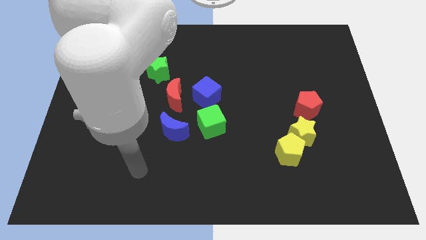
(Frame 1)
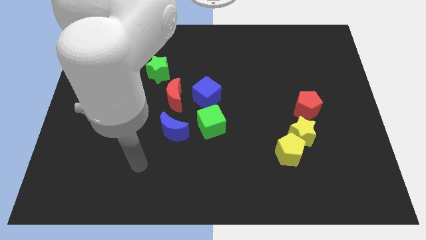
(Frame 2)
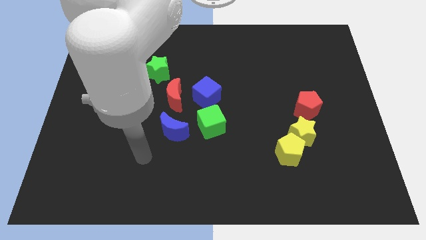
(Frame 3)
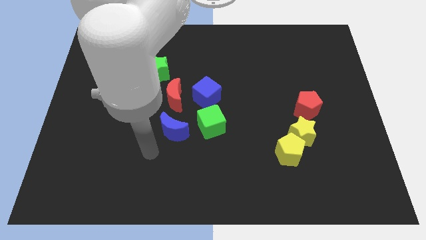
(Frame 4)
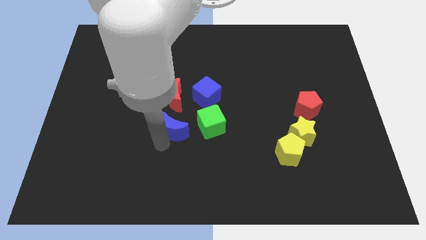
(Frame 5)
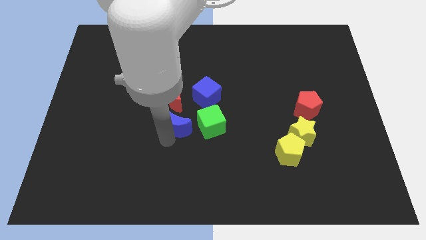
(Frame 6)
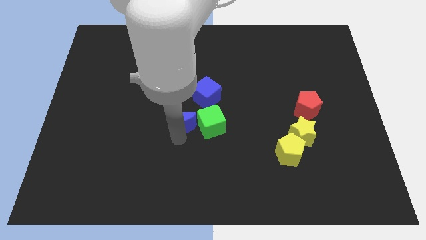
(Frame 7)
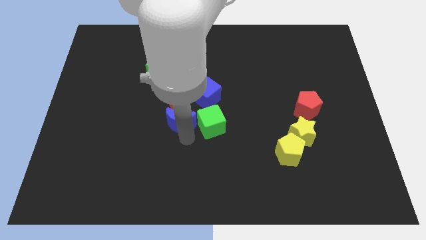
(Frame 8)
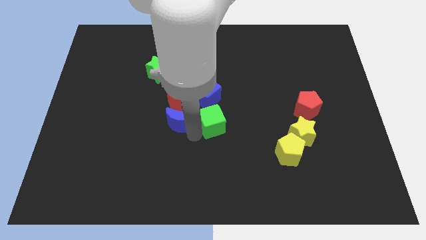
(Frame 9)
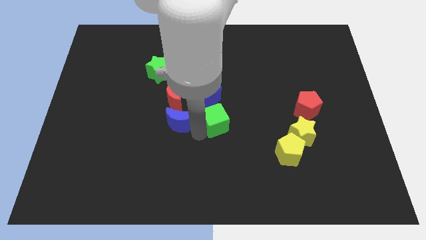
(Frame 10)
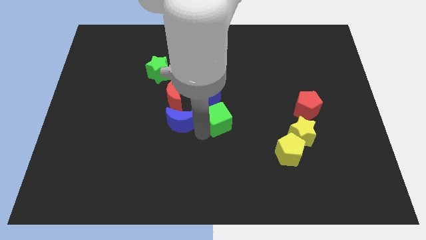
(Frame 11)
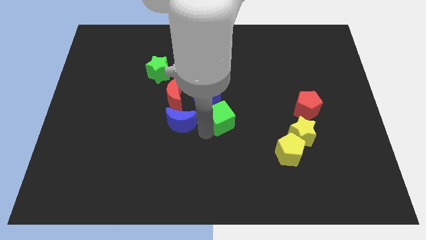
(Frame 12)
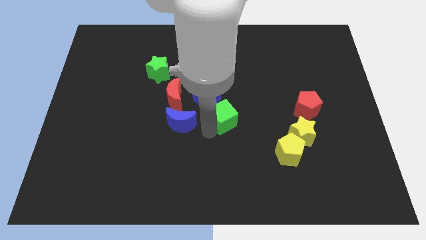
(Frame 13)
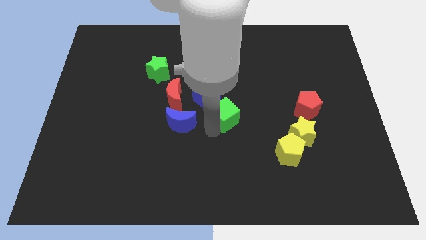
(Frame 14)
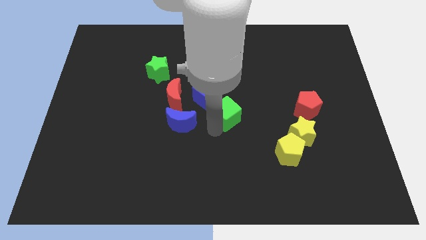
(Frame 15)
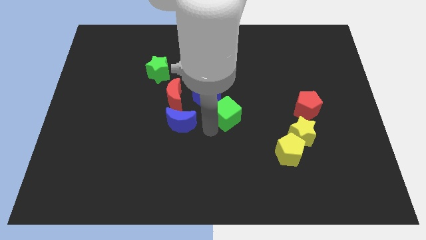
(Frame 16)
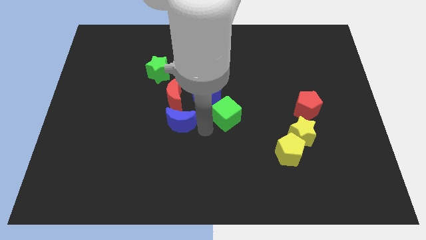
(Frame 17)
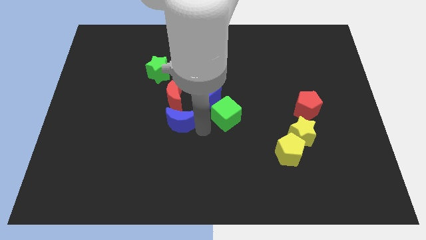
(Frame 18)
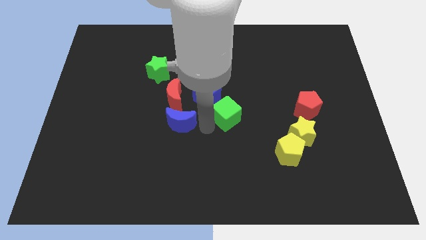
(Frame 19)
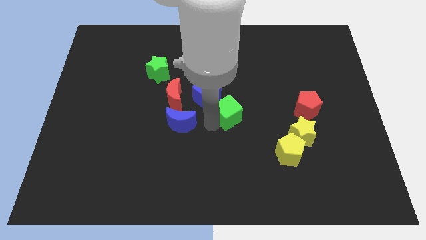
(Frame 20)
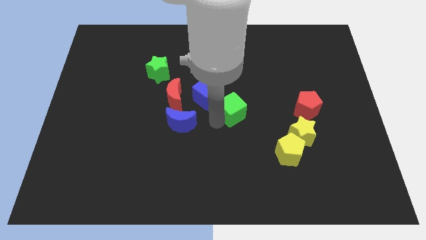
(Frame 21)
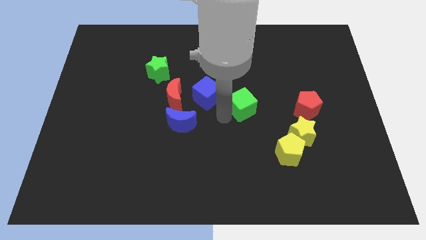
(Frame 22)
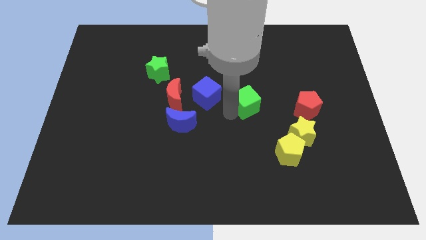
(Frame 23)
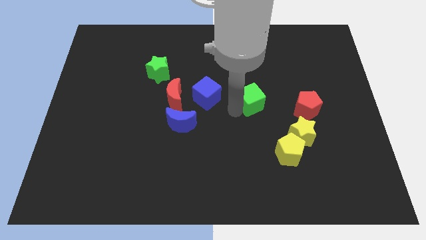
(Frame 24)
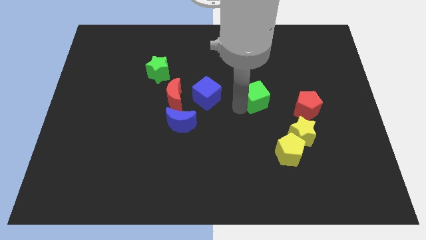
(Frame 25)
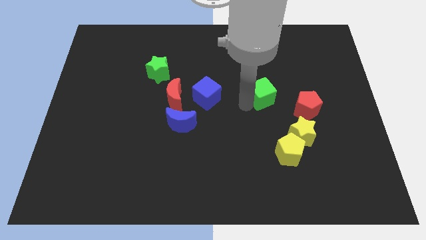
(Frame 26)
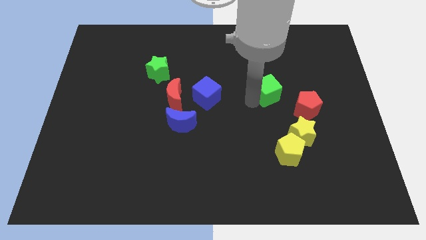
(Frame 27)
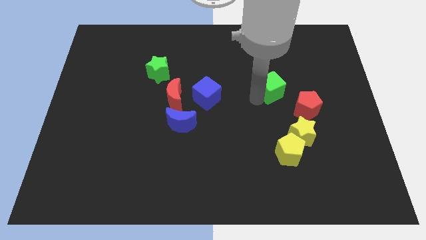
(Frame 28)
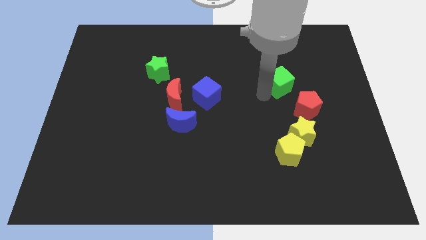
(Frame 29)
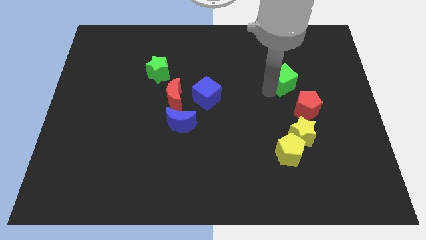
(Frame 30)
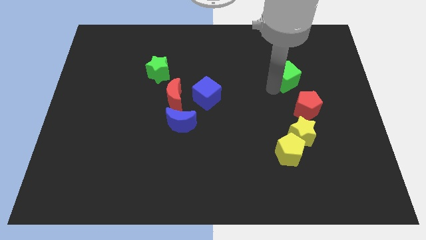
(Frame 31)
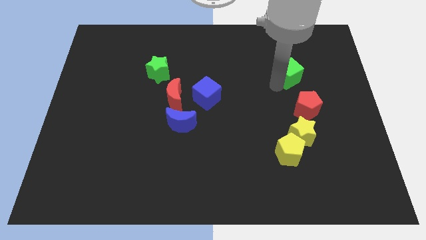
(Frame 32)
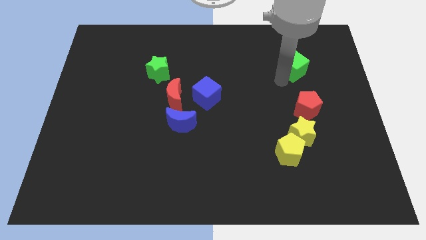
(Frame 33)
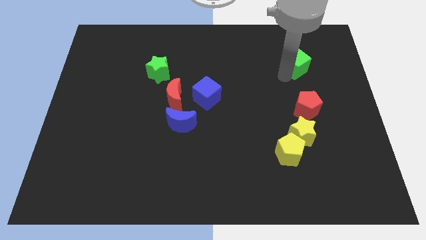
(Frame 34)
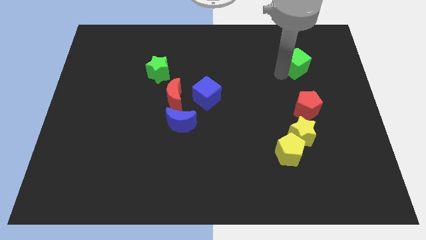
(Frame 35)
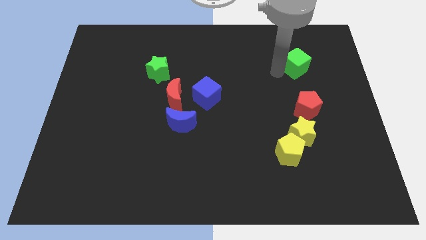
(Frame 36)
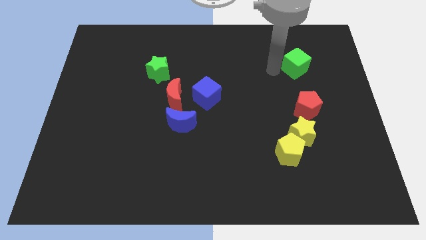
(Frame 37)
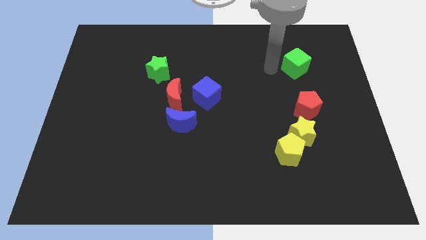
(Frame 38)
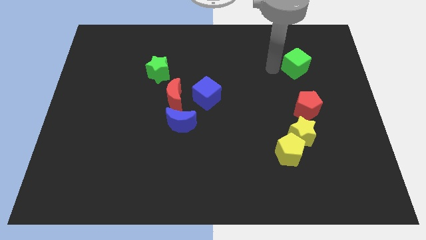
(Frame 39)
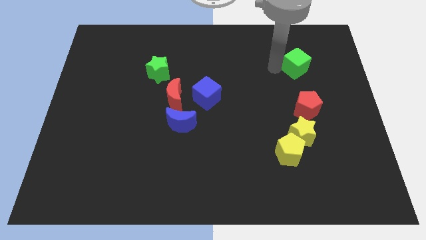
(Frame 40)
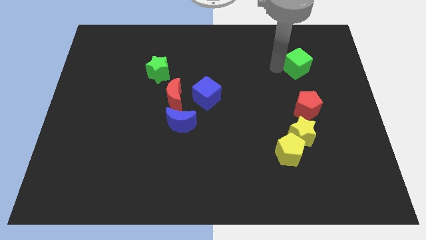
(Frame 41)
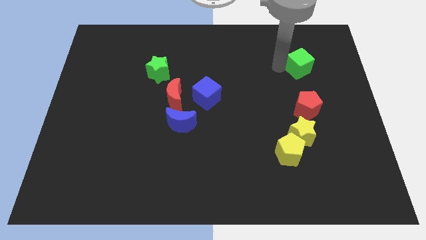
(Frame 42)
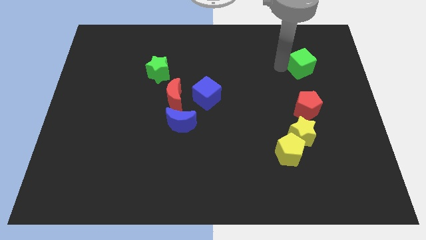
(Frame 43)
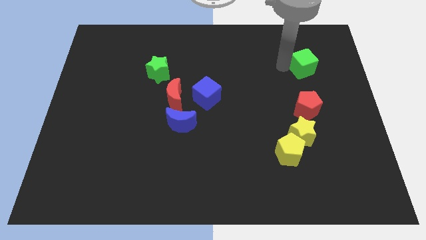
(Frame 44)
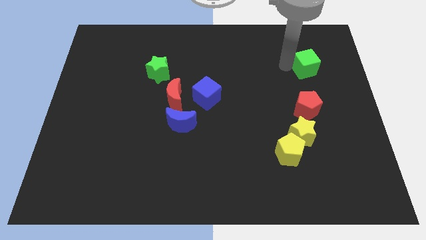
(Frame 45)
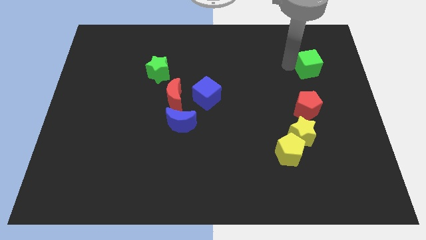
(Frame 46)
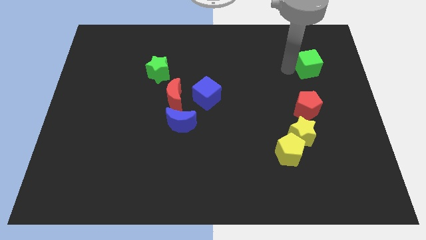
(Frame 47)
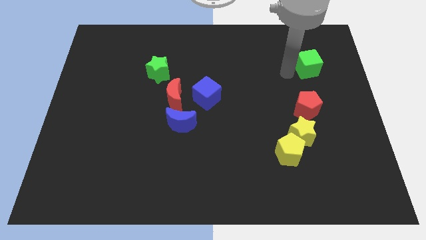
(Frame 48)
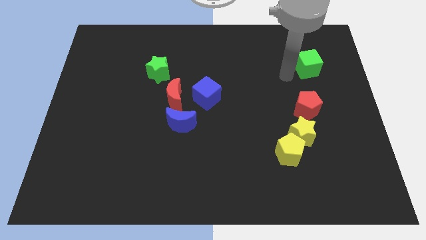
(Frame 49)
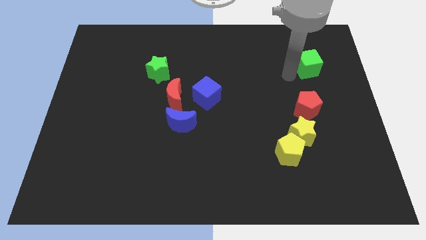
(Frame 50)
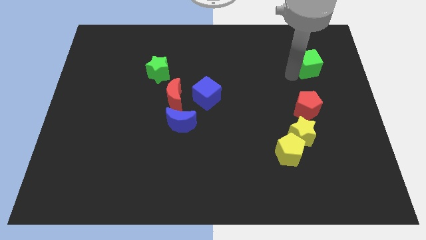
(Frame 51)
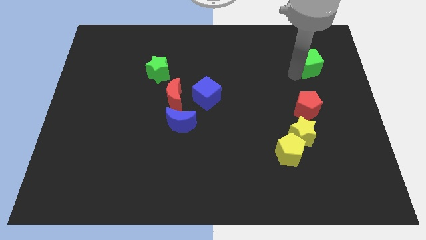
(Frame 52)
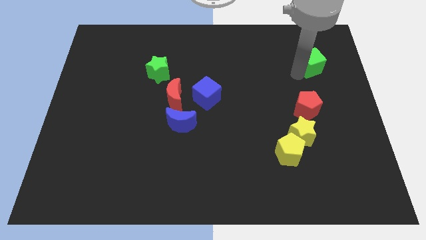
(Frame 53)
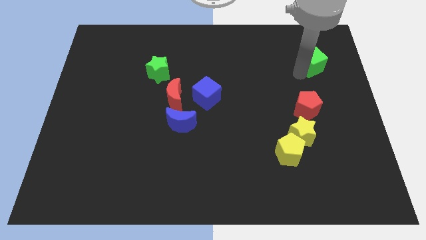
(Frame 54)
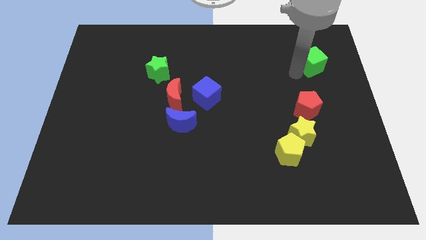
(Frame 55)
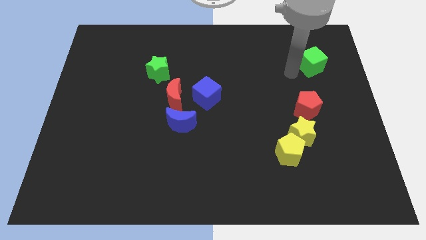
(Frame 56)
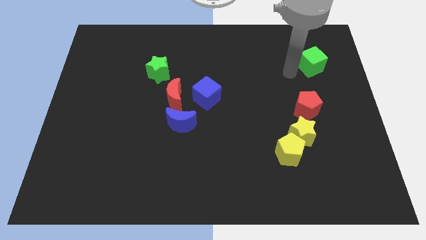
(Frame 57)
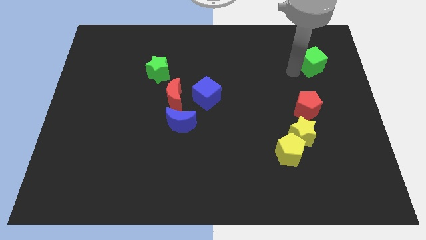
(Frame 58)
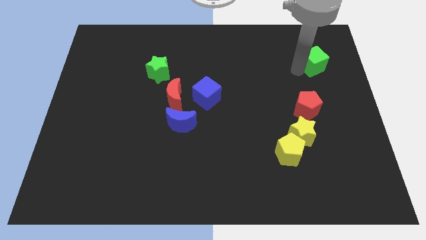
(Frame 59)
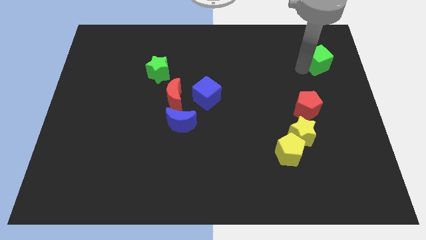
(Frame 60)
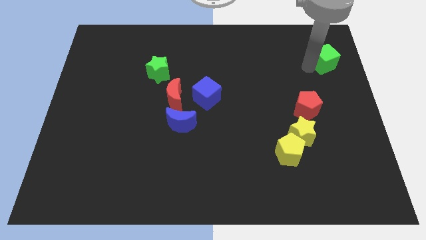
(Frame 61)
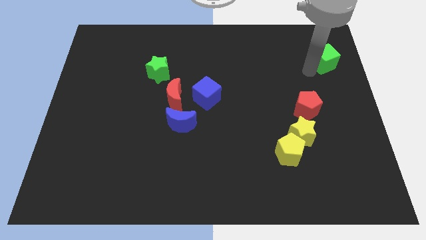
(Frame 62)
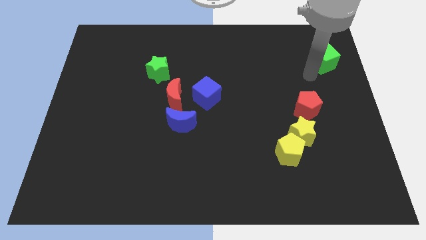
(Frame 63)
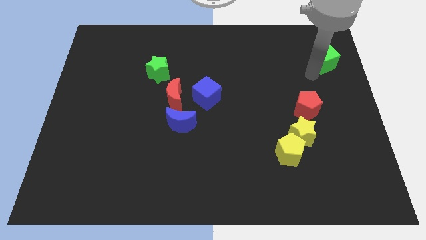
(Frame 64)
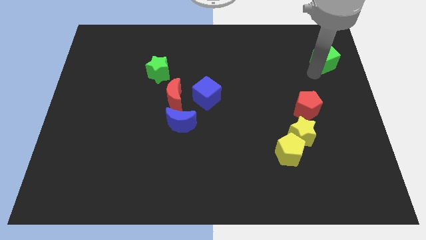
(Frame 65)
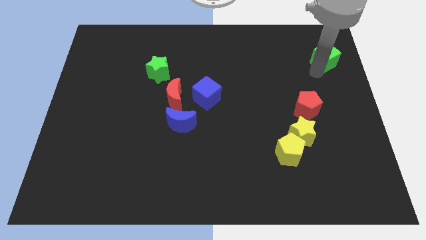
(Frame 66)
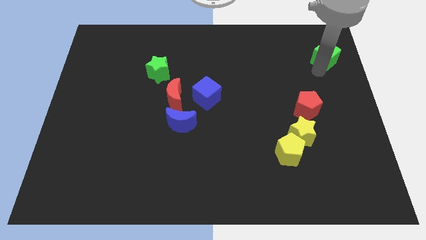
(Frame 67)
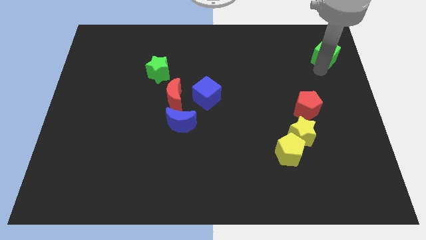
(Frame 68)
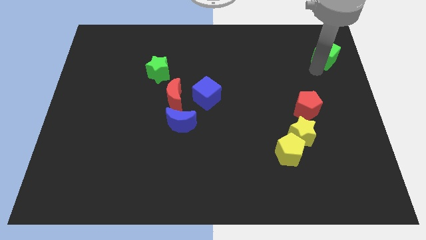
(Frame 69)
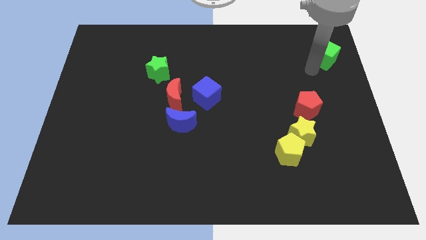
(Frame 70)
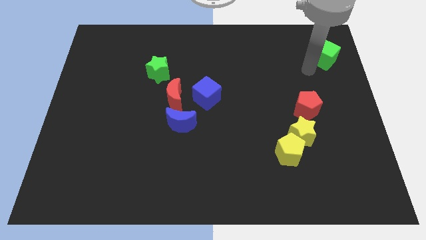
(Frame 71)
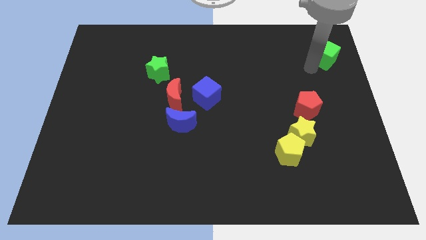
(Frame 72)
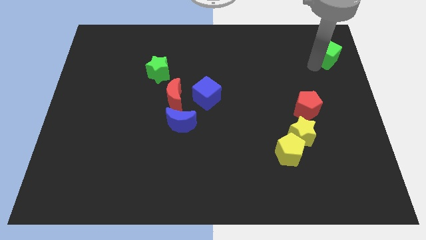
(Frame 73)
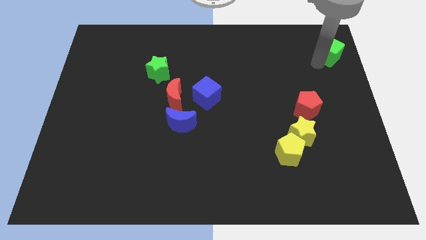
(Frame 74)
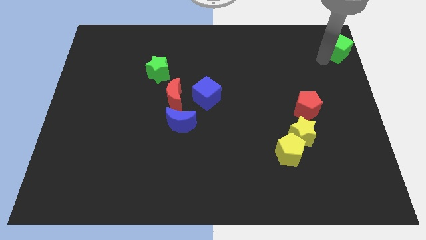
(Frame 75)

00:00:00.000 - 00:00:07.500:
put the green cube to the top right corner
